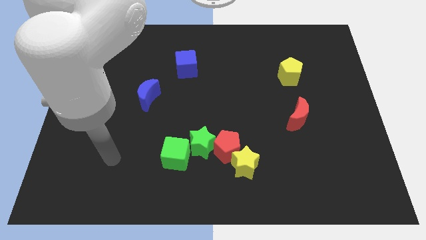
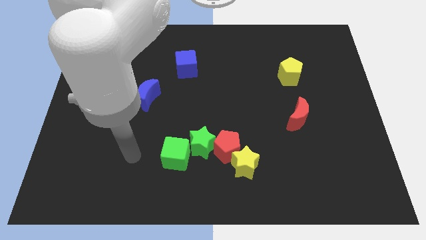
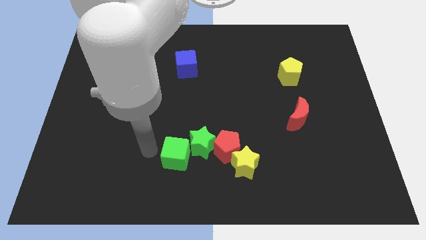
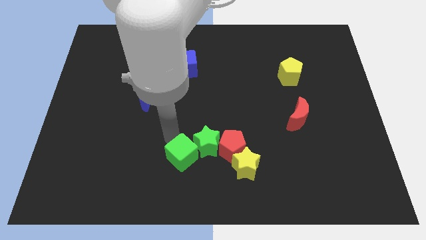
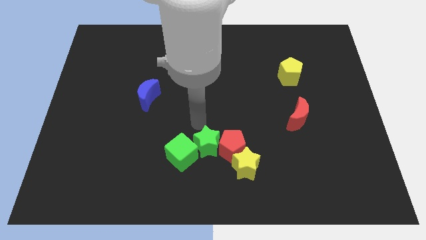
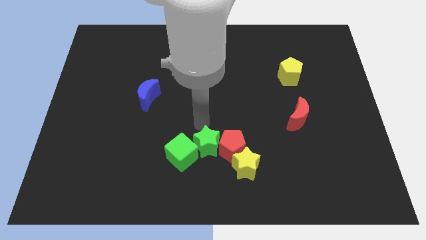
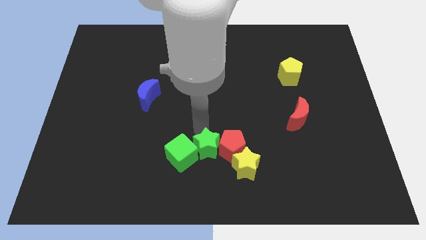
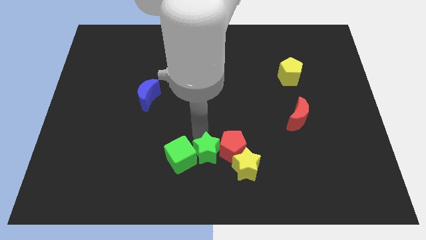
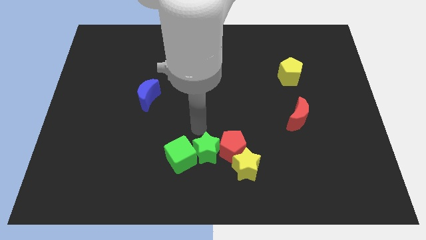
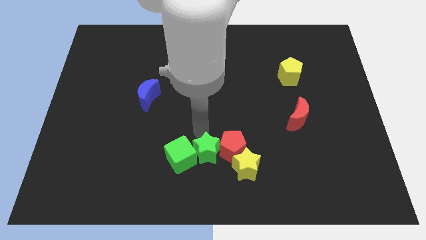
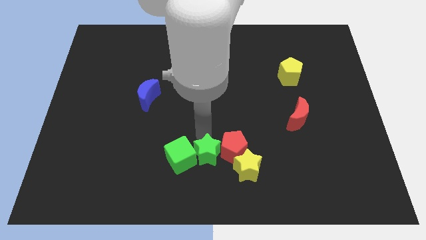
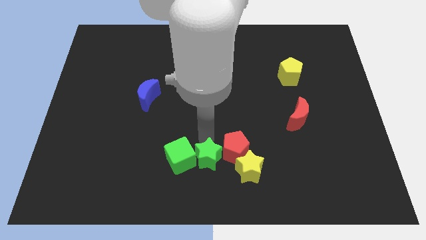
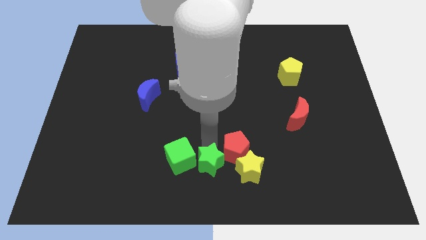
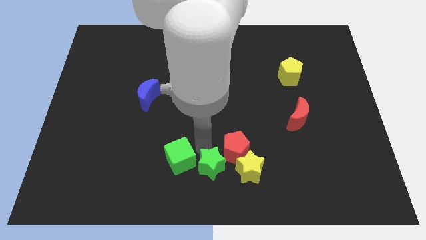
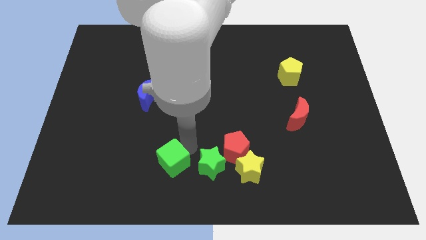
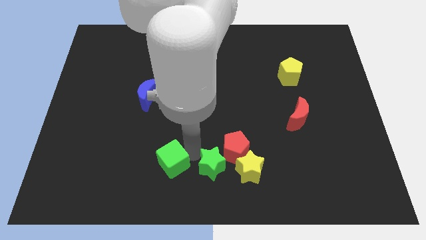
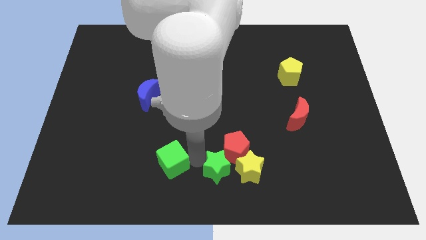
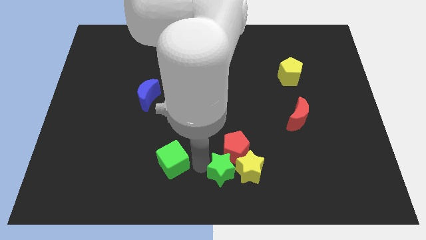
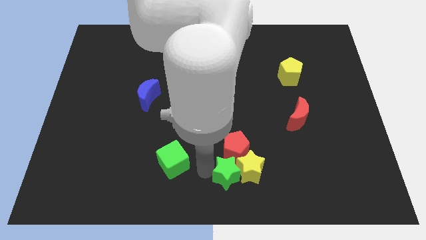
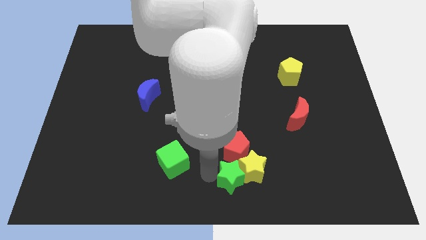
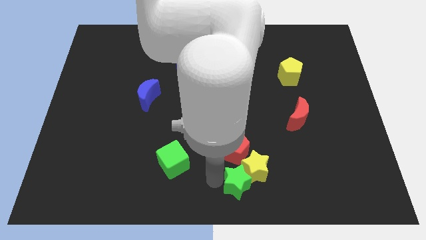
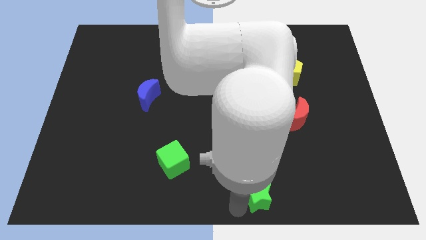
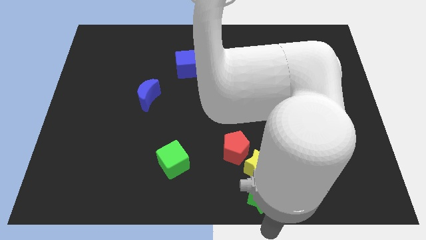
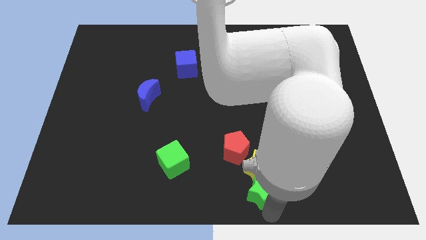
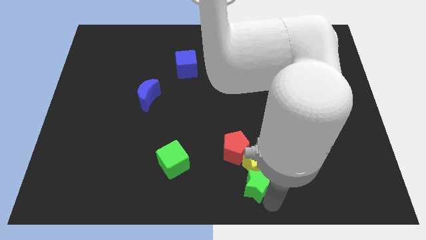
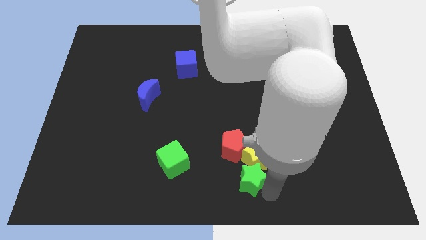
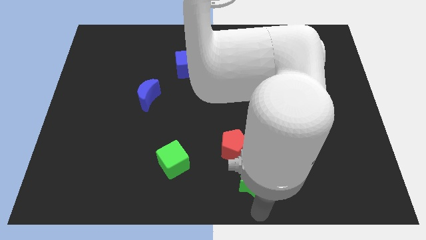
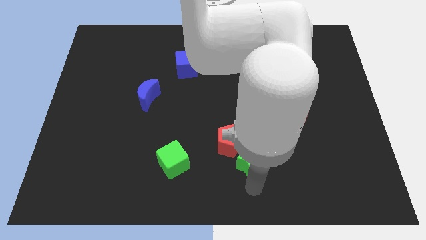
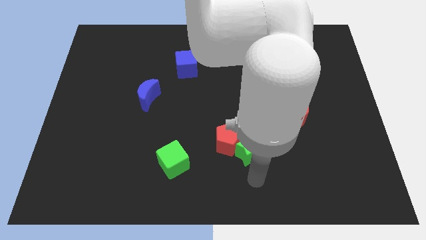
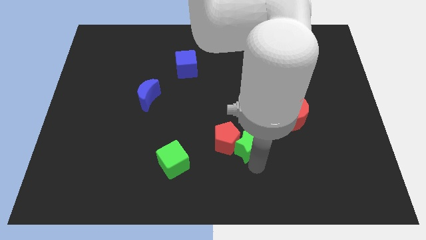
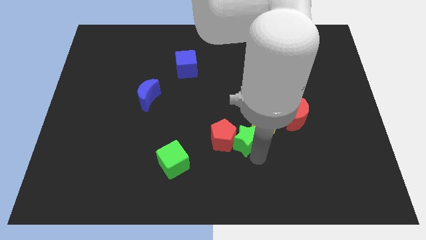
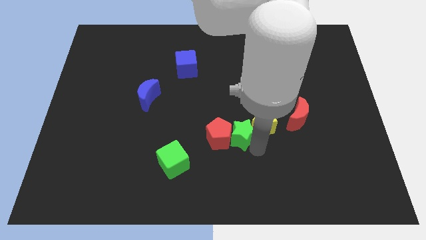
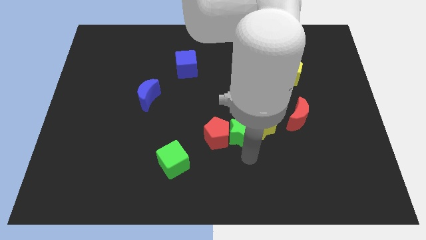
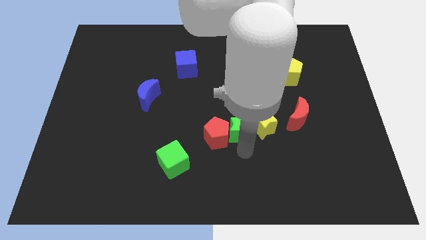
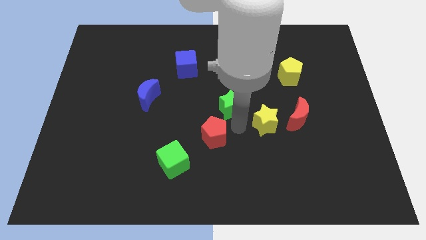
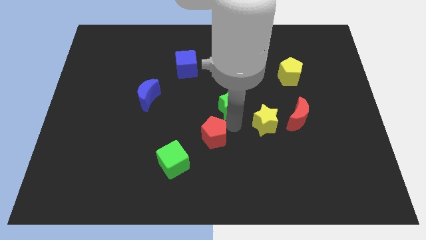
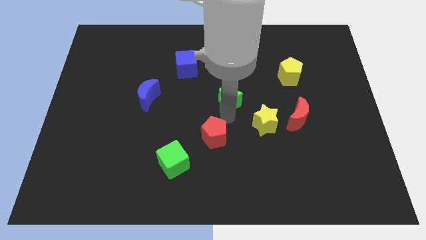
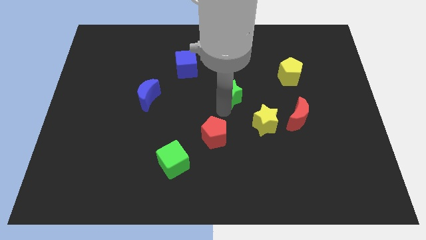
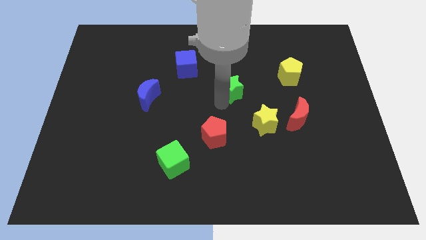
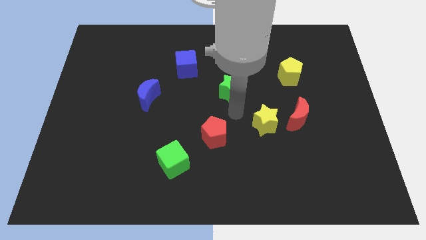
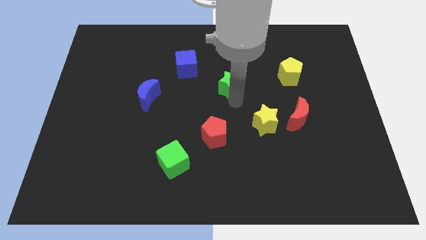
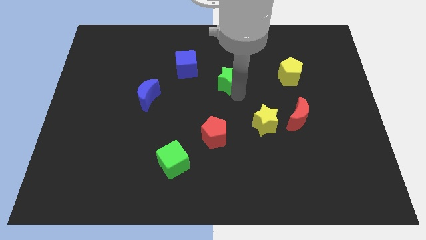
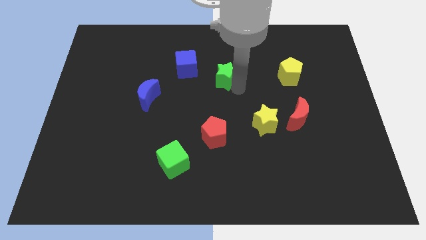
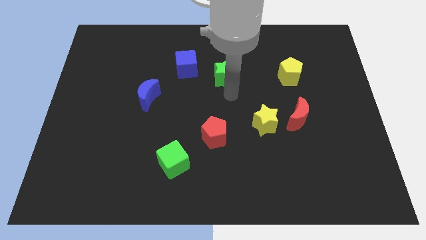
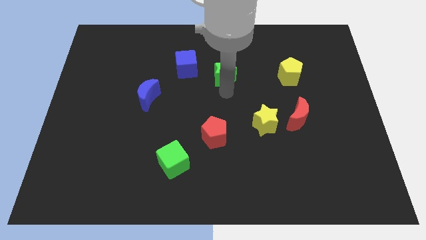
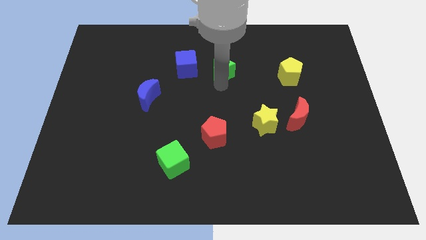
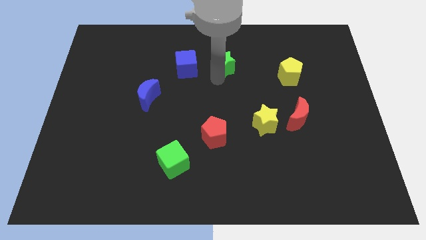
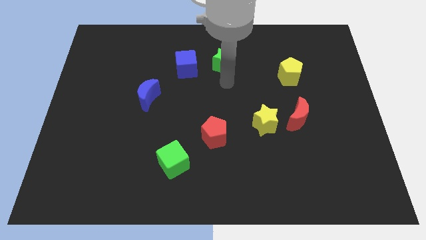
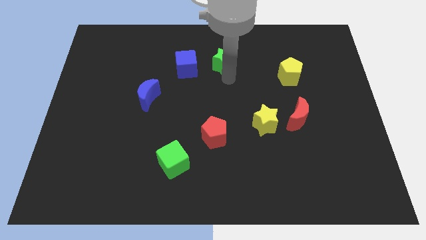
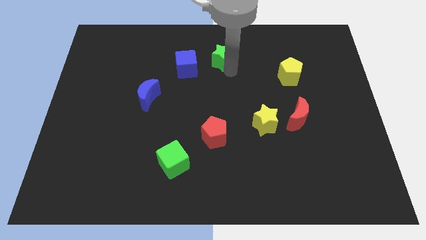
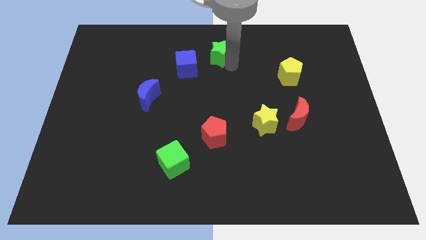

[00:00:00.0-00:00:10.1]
push the green star to the top
